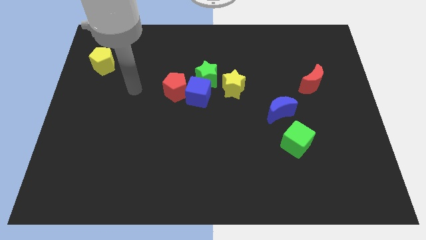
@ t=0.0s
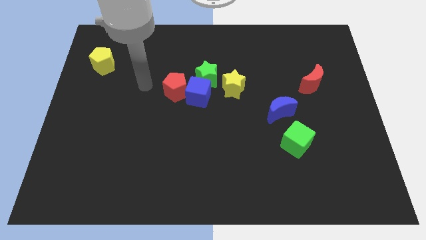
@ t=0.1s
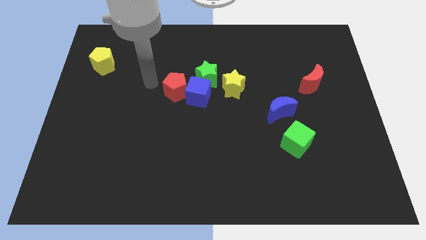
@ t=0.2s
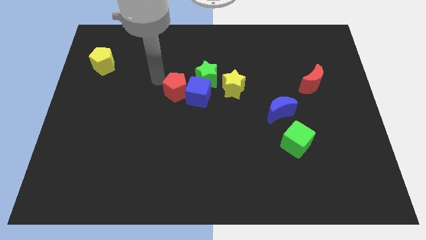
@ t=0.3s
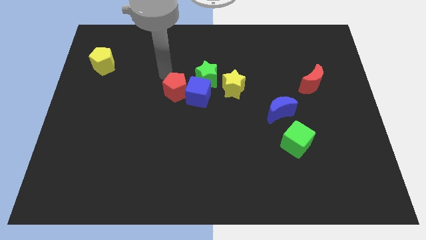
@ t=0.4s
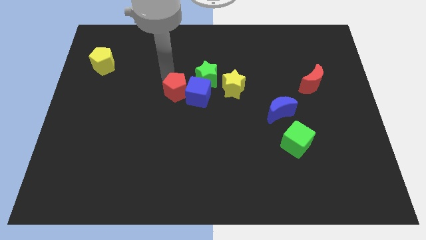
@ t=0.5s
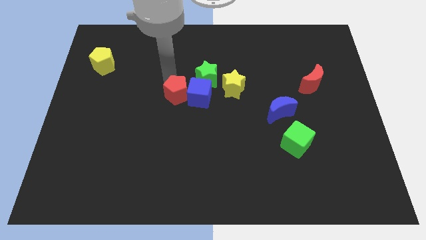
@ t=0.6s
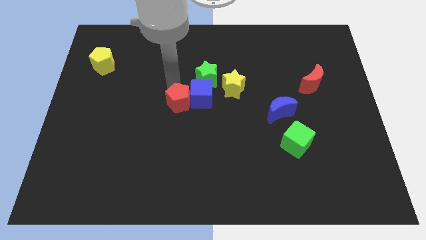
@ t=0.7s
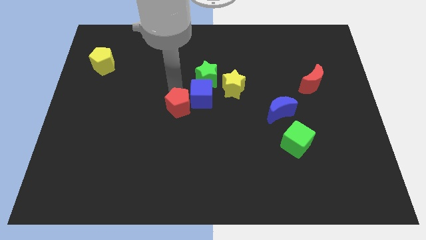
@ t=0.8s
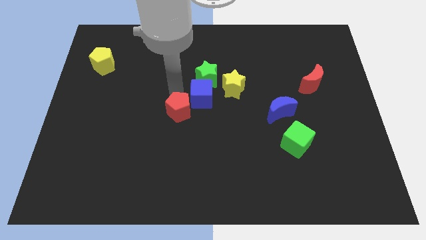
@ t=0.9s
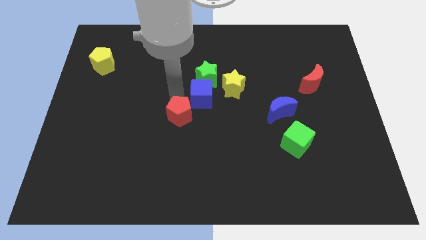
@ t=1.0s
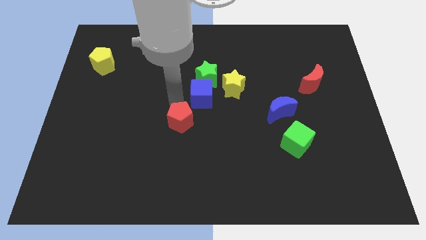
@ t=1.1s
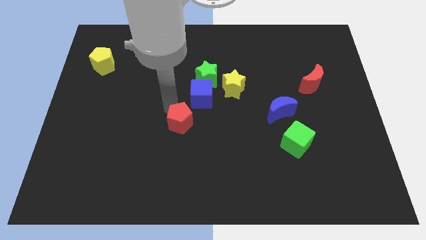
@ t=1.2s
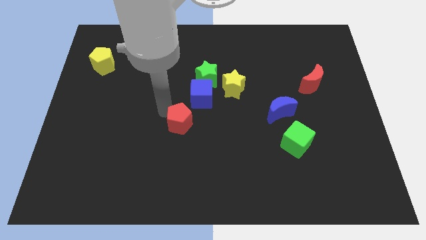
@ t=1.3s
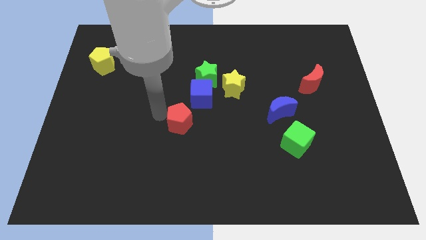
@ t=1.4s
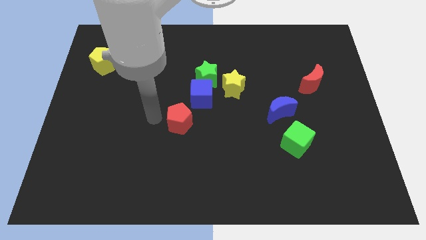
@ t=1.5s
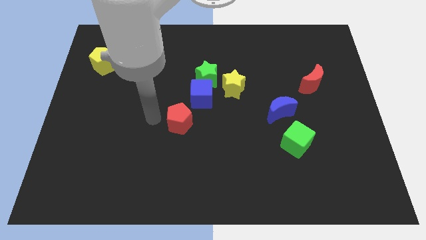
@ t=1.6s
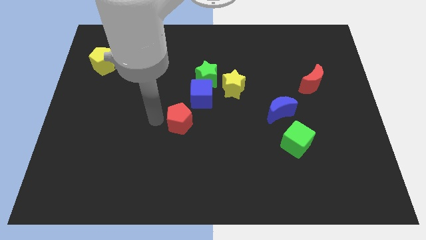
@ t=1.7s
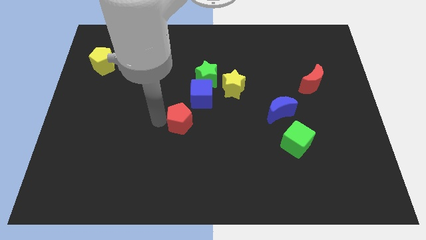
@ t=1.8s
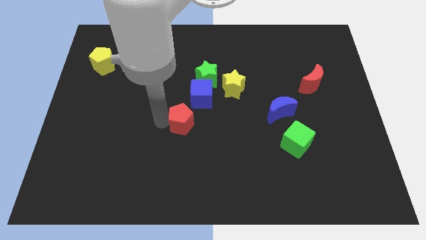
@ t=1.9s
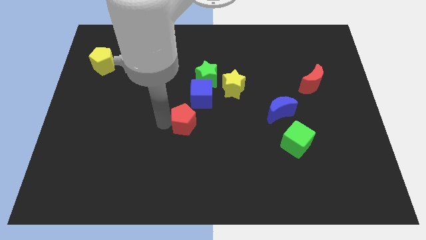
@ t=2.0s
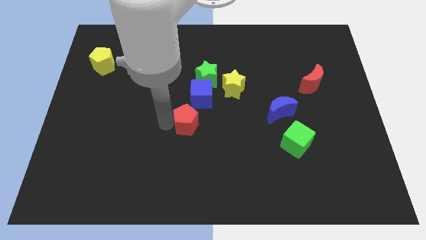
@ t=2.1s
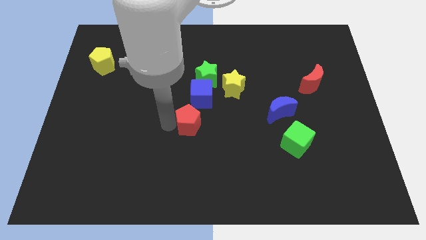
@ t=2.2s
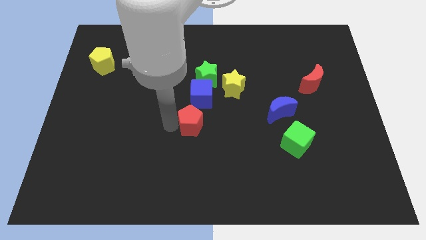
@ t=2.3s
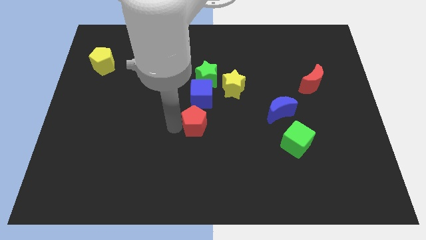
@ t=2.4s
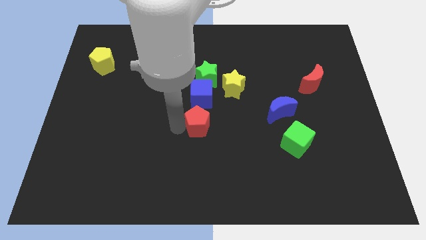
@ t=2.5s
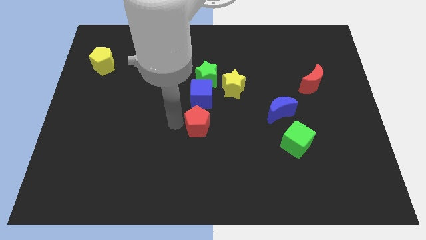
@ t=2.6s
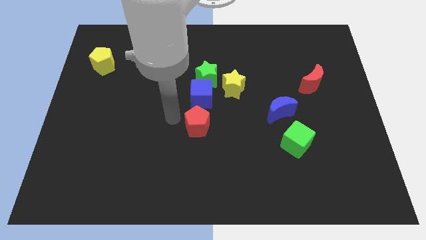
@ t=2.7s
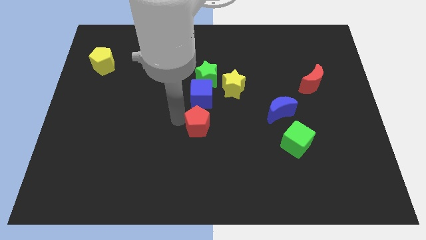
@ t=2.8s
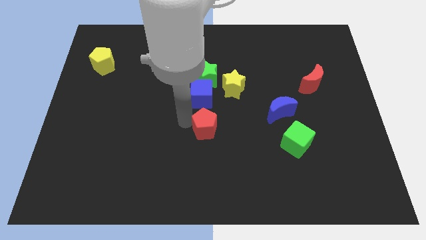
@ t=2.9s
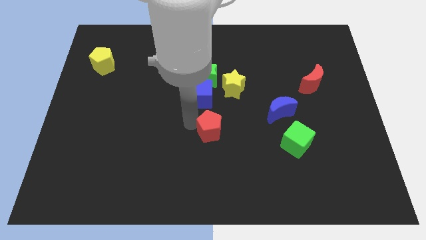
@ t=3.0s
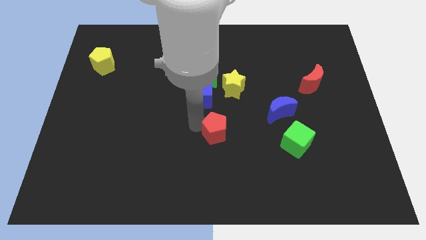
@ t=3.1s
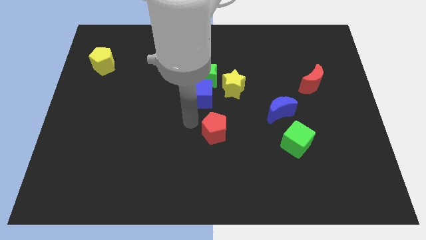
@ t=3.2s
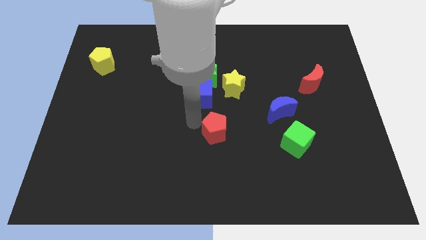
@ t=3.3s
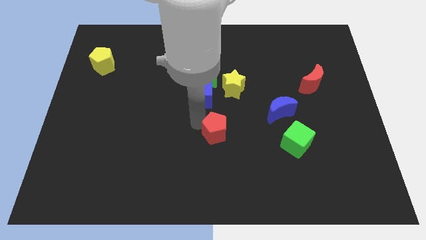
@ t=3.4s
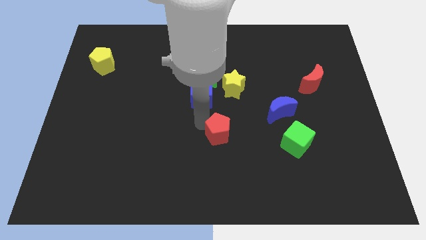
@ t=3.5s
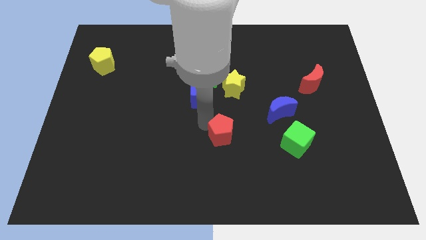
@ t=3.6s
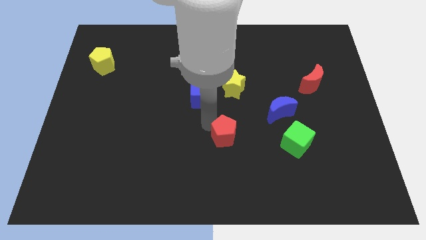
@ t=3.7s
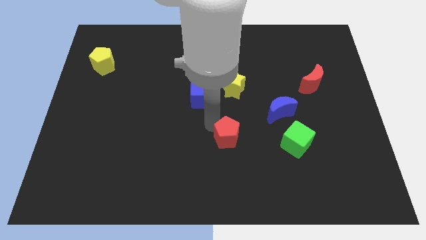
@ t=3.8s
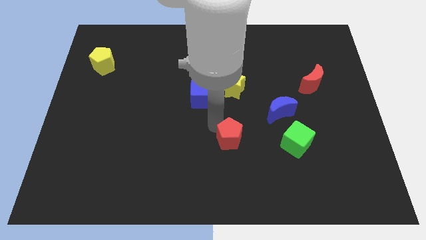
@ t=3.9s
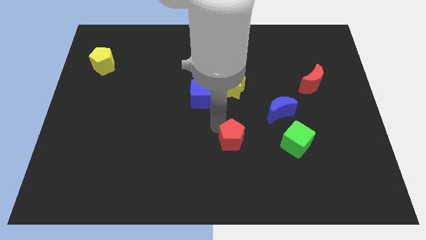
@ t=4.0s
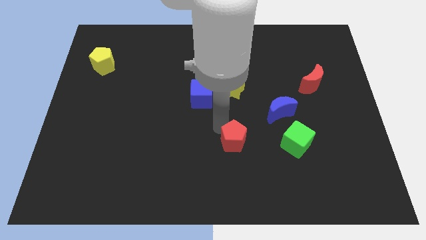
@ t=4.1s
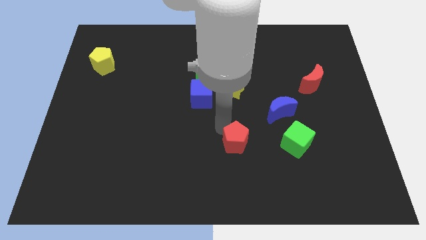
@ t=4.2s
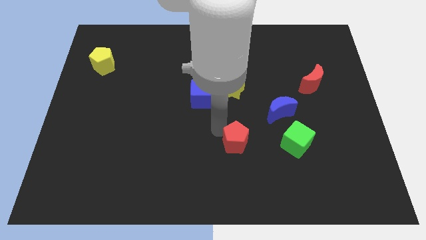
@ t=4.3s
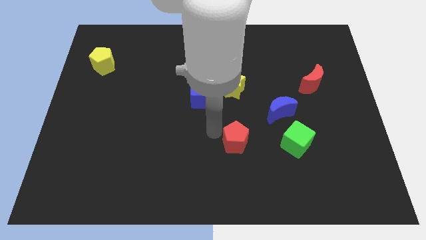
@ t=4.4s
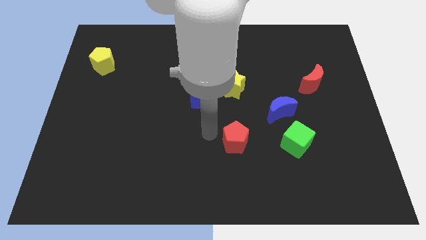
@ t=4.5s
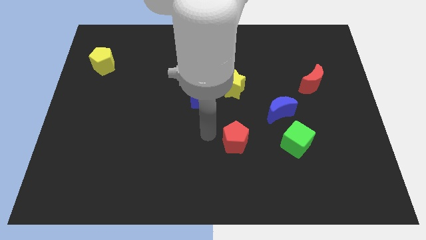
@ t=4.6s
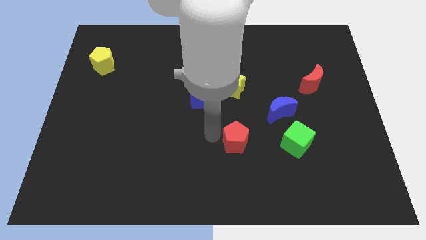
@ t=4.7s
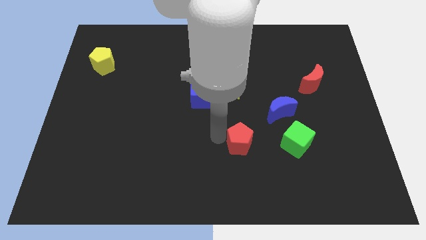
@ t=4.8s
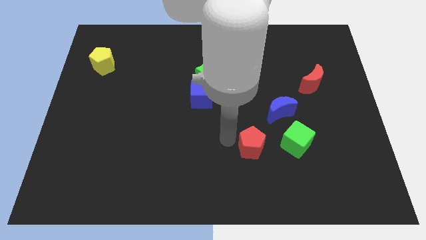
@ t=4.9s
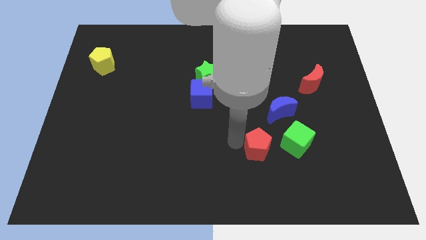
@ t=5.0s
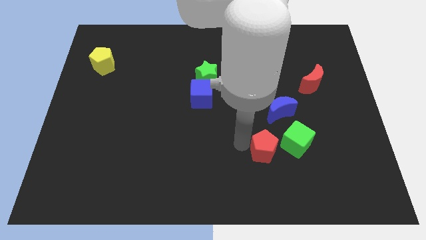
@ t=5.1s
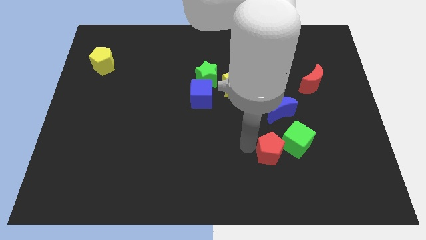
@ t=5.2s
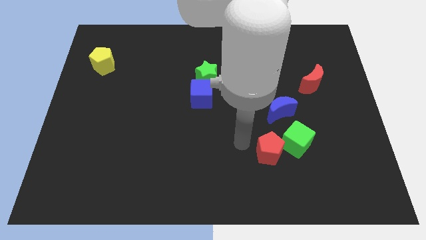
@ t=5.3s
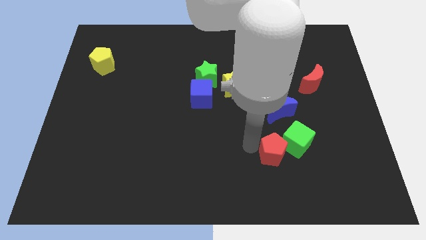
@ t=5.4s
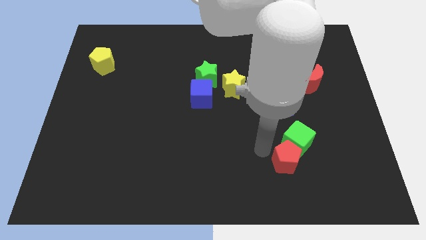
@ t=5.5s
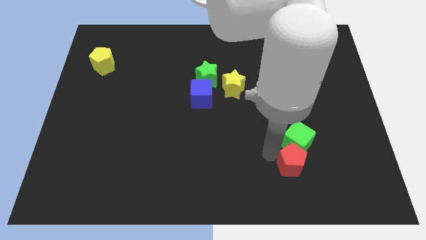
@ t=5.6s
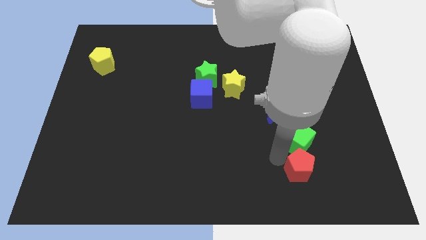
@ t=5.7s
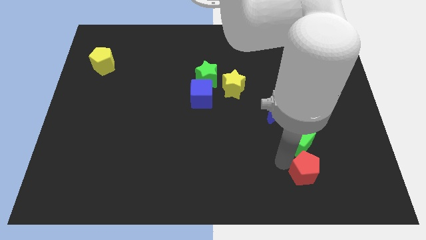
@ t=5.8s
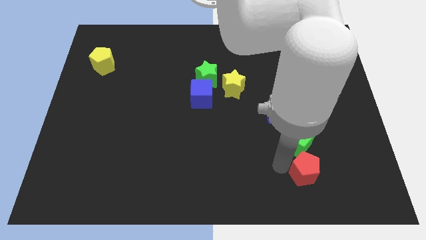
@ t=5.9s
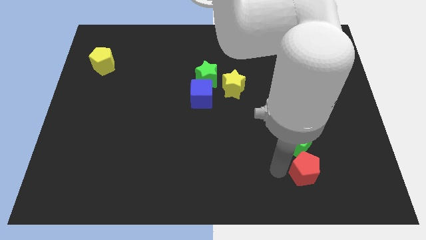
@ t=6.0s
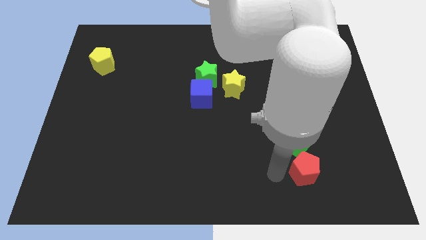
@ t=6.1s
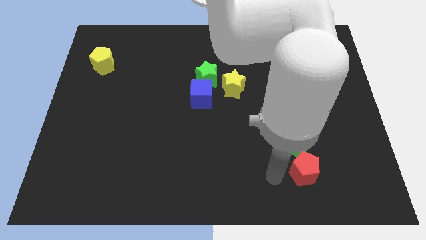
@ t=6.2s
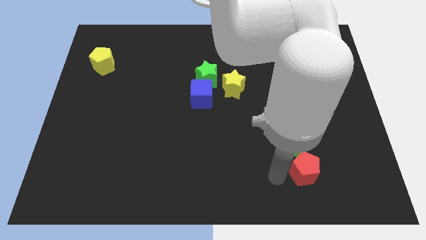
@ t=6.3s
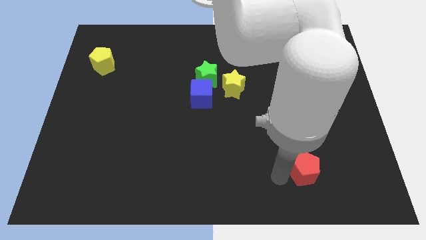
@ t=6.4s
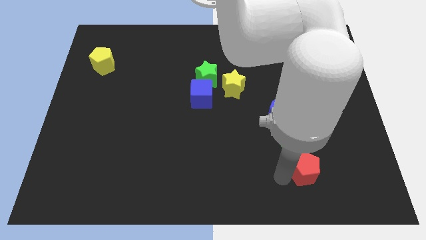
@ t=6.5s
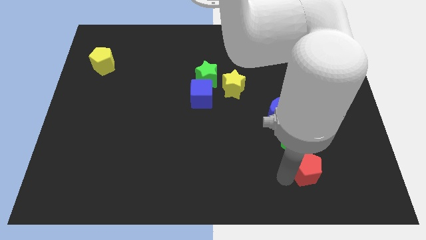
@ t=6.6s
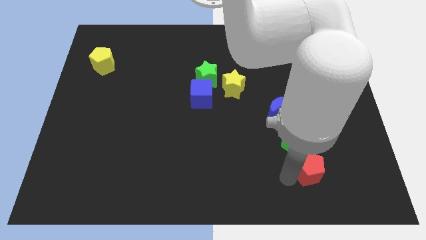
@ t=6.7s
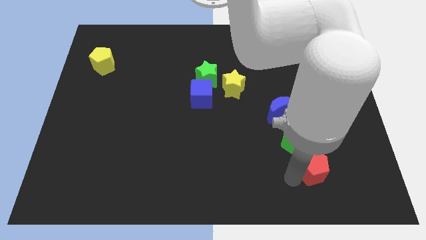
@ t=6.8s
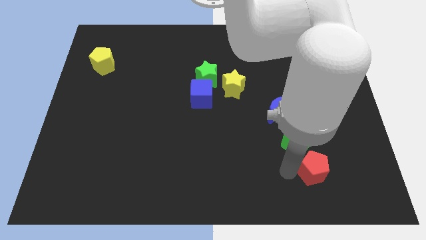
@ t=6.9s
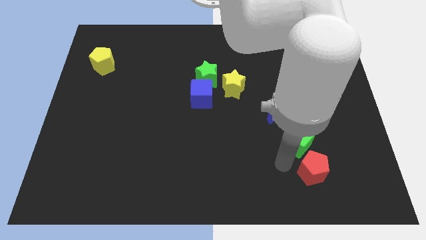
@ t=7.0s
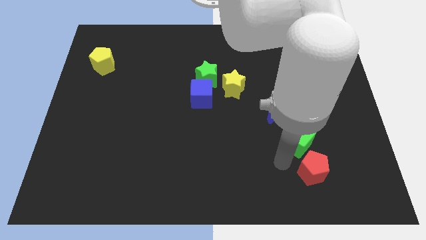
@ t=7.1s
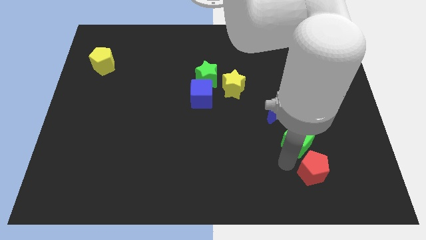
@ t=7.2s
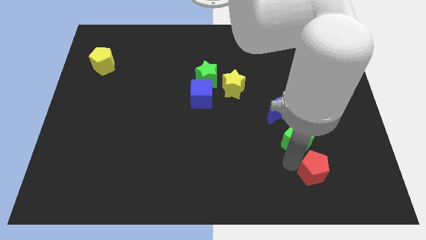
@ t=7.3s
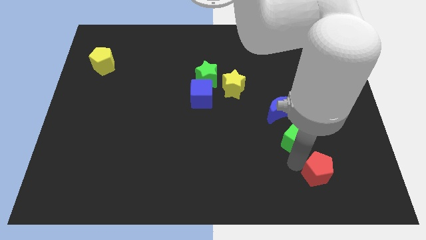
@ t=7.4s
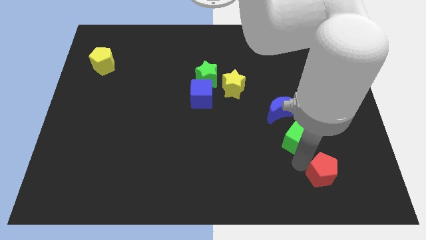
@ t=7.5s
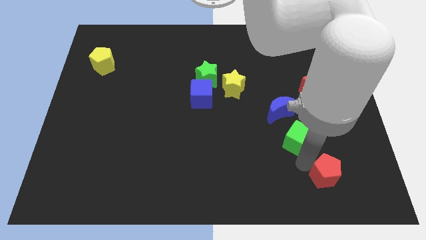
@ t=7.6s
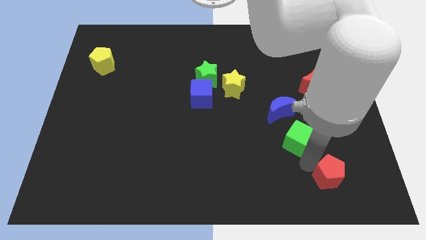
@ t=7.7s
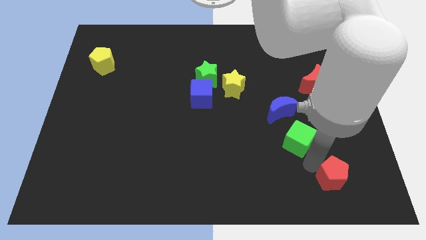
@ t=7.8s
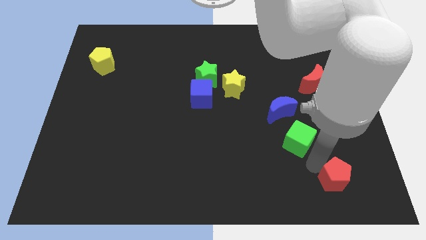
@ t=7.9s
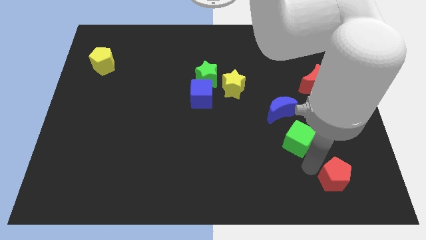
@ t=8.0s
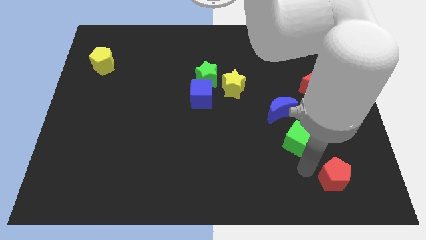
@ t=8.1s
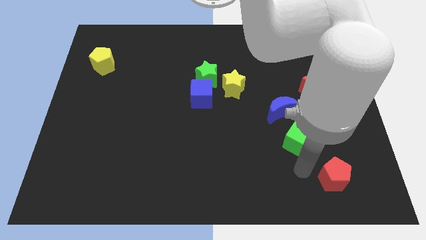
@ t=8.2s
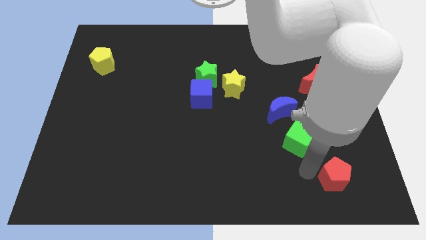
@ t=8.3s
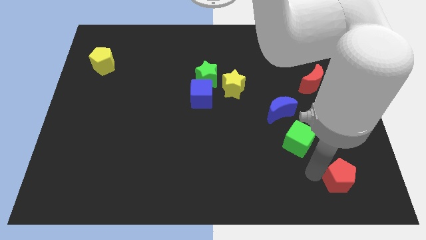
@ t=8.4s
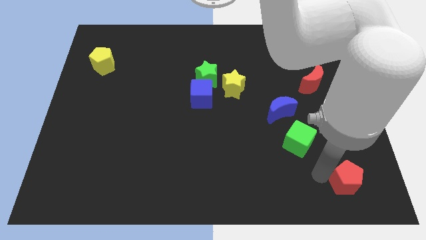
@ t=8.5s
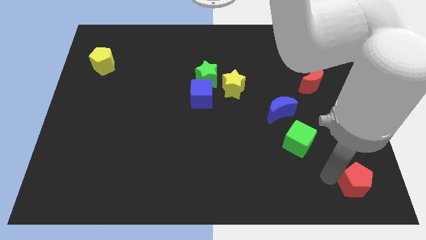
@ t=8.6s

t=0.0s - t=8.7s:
move the red pentagon to the bottom right corner
